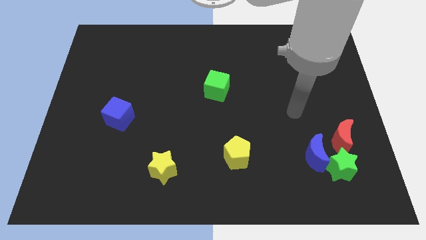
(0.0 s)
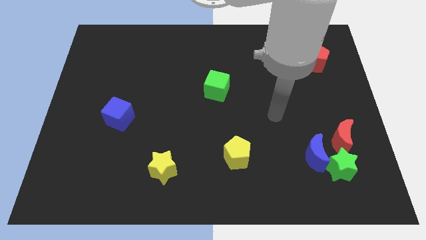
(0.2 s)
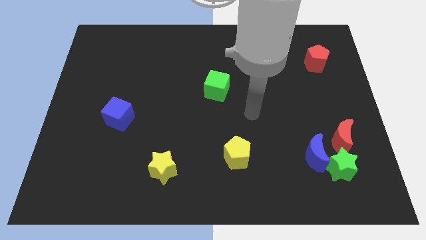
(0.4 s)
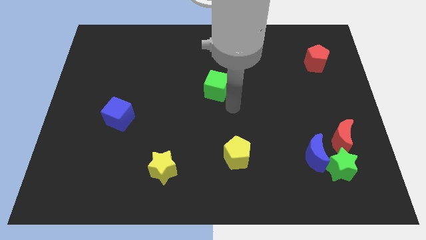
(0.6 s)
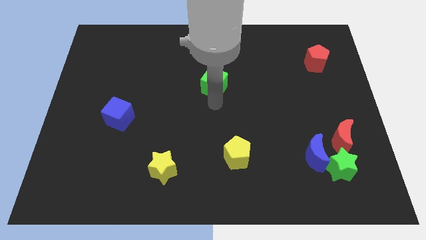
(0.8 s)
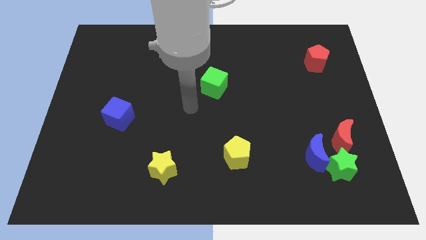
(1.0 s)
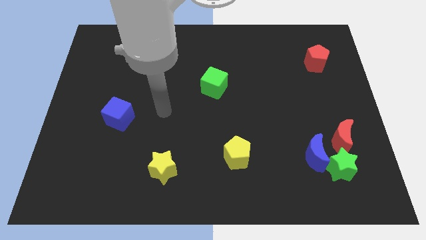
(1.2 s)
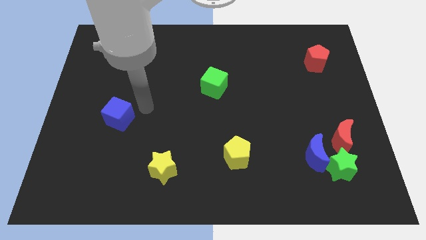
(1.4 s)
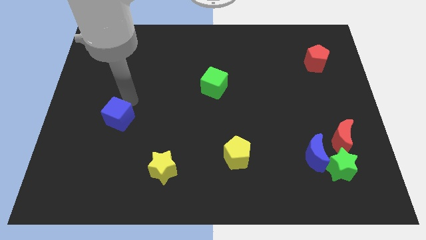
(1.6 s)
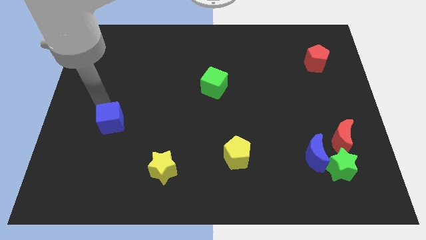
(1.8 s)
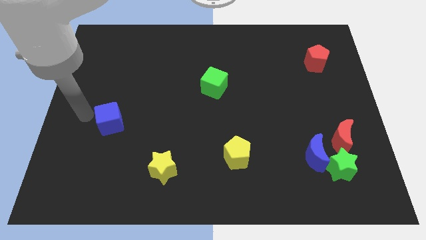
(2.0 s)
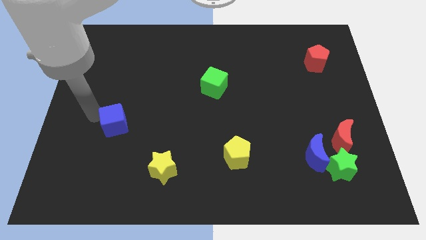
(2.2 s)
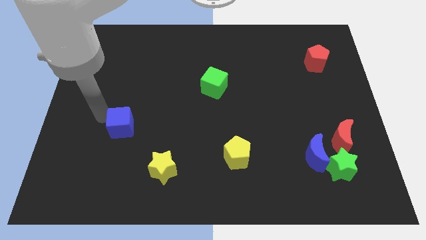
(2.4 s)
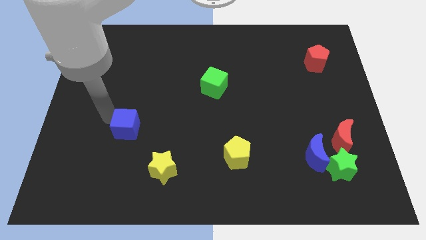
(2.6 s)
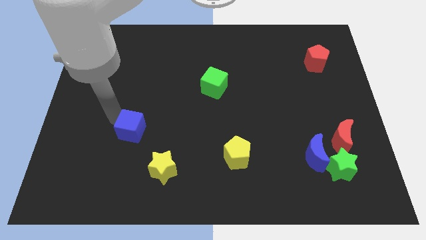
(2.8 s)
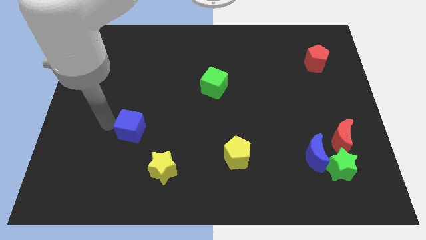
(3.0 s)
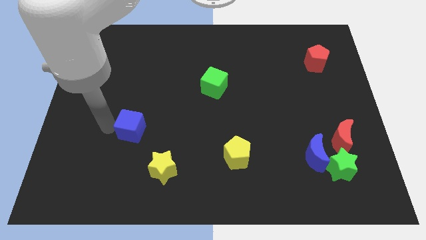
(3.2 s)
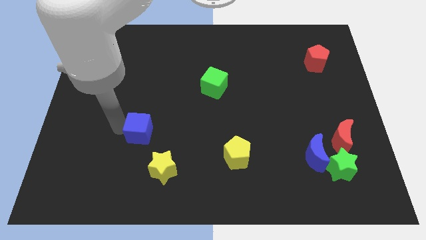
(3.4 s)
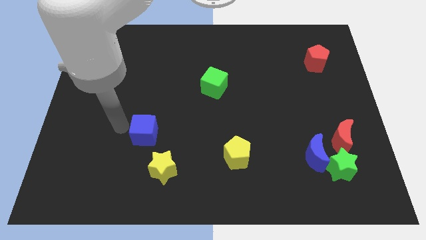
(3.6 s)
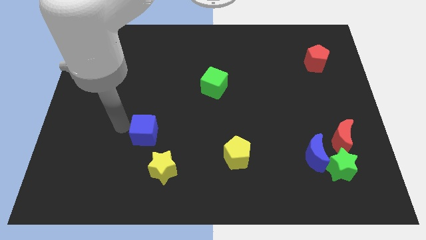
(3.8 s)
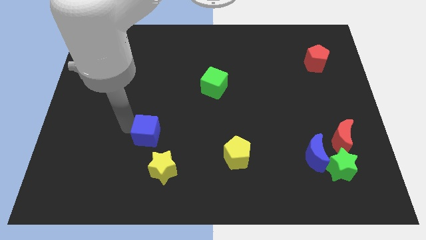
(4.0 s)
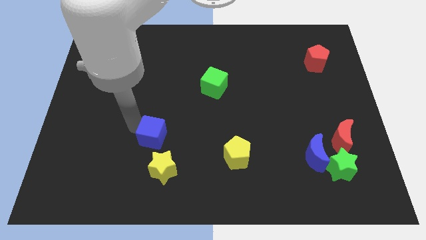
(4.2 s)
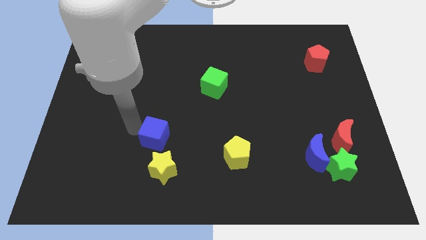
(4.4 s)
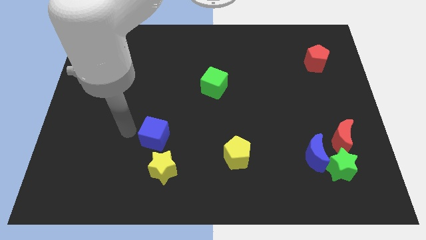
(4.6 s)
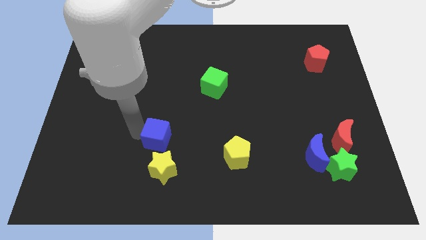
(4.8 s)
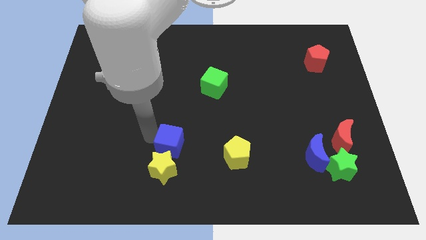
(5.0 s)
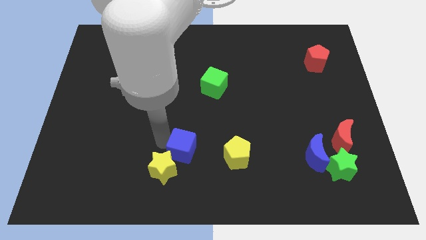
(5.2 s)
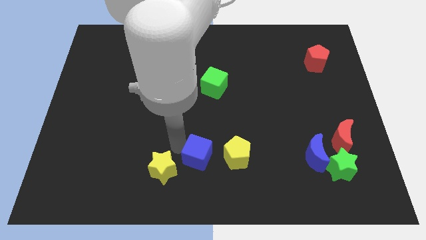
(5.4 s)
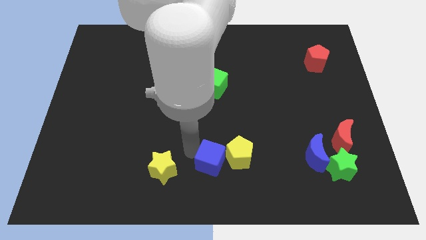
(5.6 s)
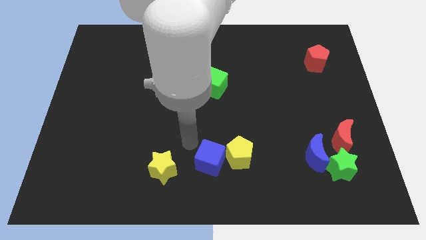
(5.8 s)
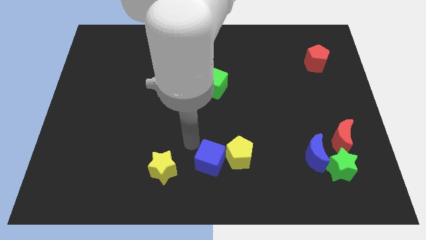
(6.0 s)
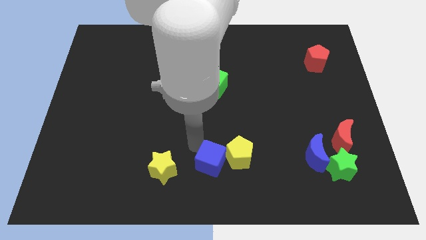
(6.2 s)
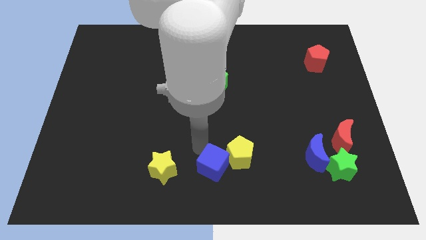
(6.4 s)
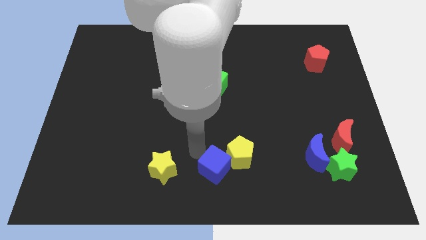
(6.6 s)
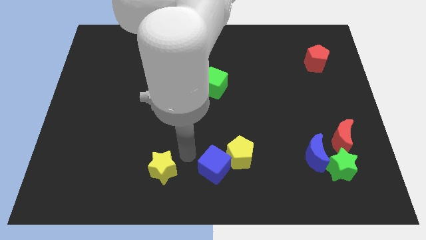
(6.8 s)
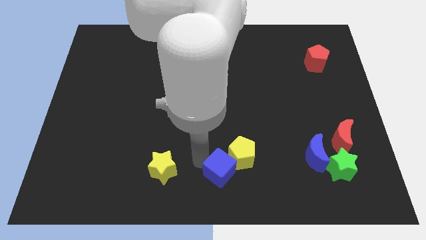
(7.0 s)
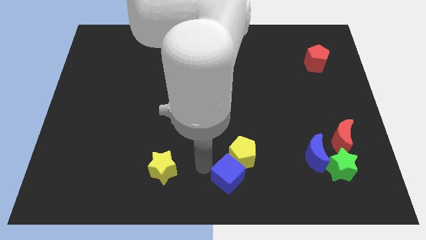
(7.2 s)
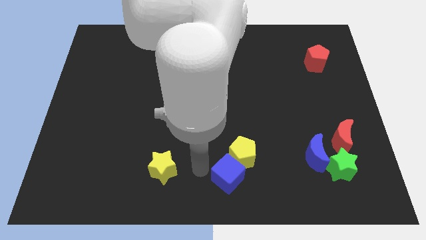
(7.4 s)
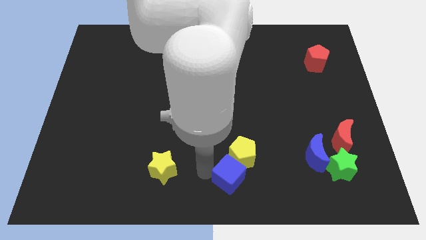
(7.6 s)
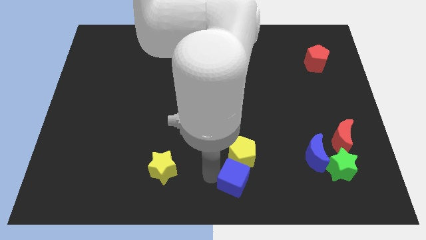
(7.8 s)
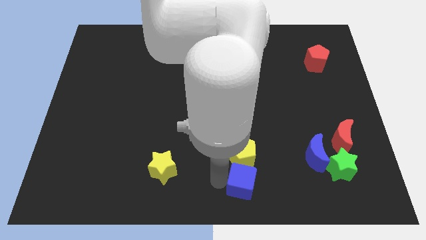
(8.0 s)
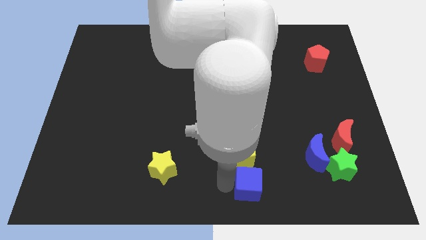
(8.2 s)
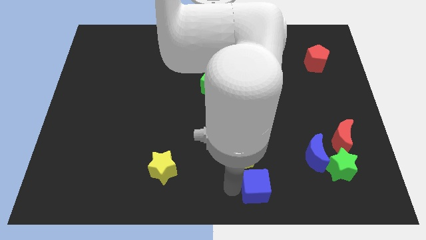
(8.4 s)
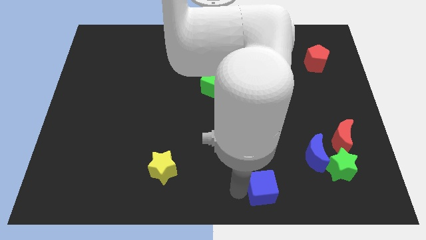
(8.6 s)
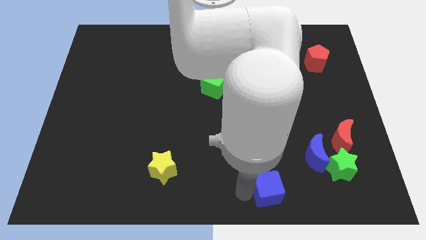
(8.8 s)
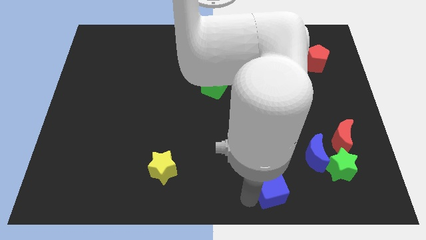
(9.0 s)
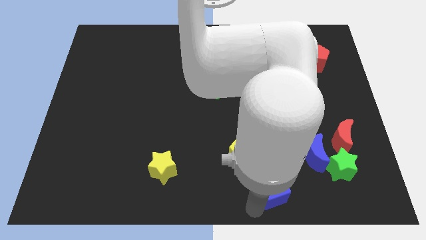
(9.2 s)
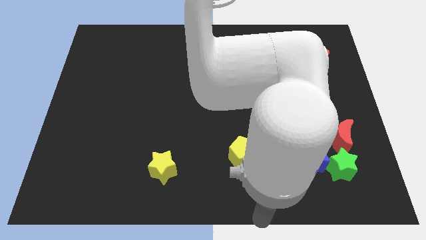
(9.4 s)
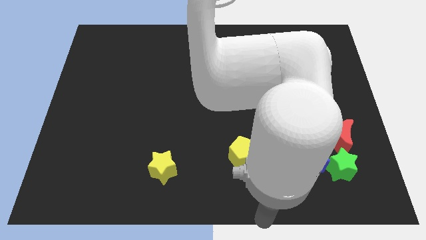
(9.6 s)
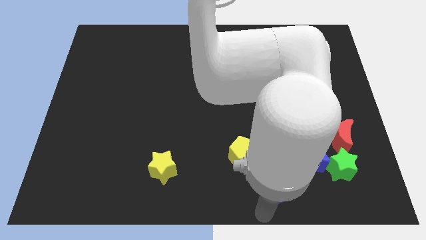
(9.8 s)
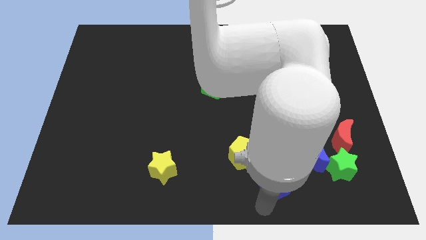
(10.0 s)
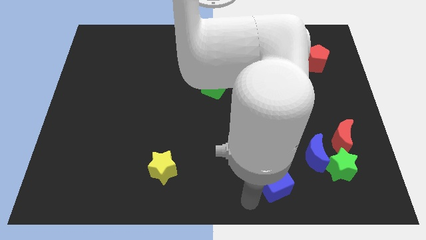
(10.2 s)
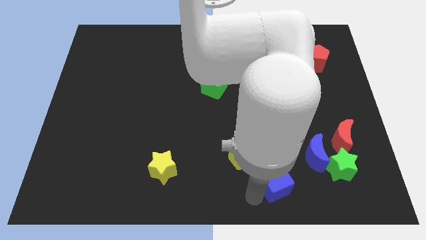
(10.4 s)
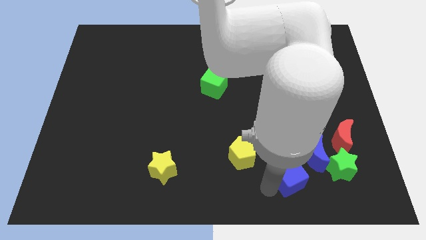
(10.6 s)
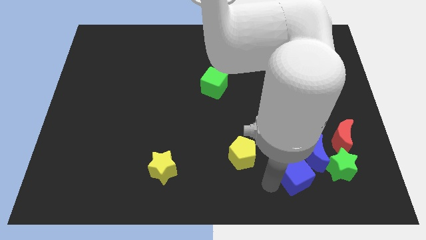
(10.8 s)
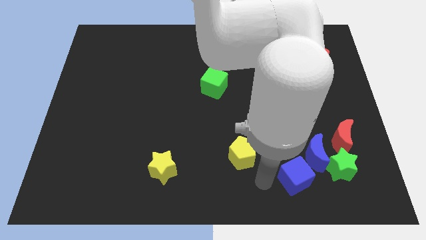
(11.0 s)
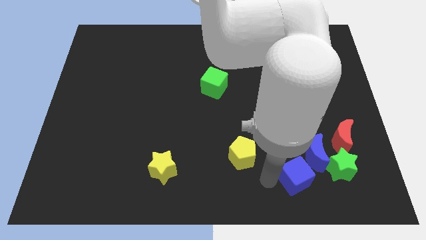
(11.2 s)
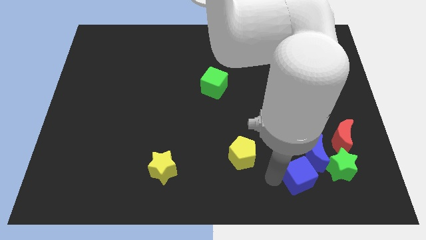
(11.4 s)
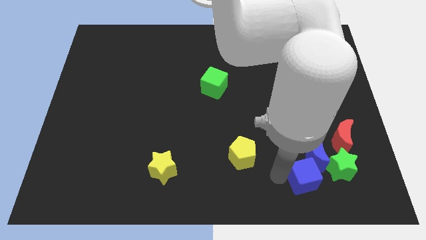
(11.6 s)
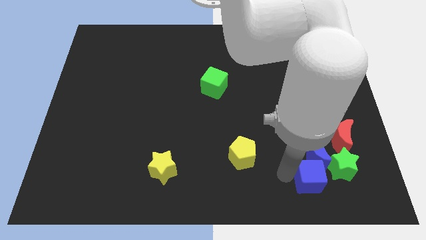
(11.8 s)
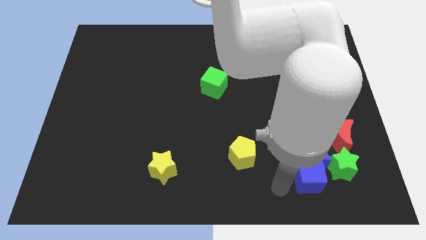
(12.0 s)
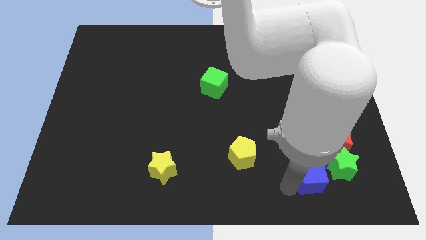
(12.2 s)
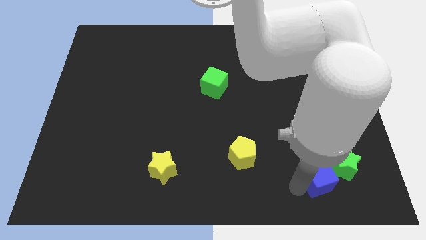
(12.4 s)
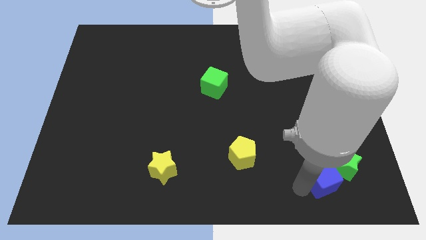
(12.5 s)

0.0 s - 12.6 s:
slide the blue cube next to the green star

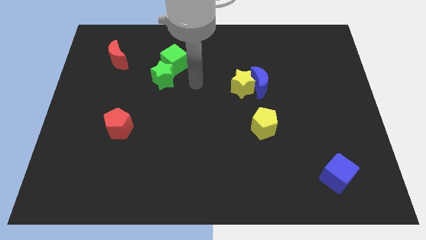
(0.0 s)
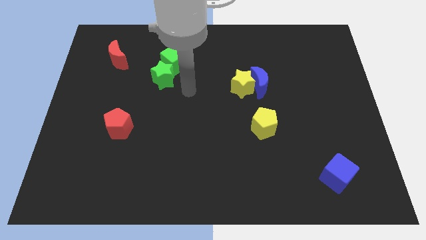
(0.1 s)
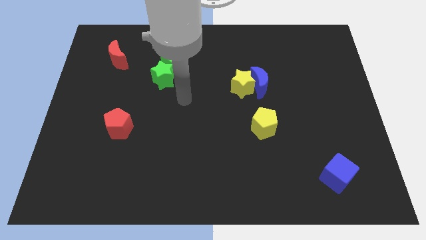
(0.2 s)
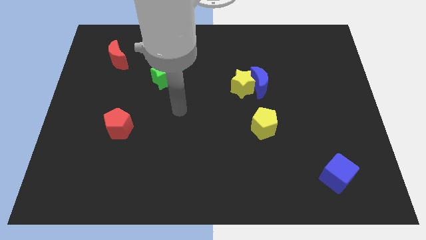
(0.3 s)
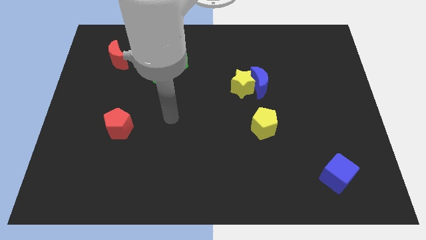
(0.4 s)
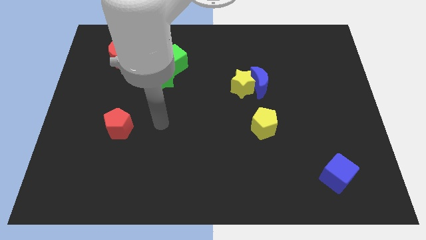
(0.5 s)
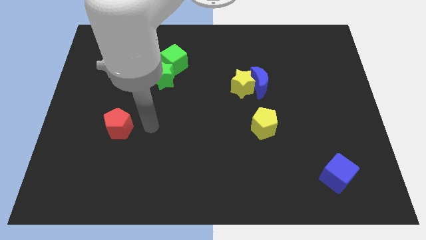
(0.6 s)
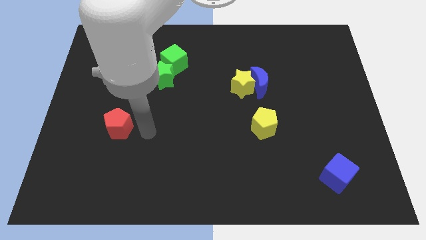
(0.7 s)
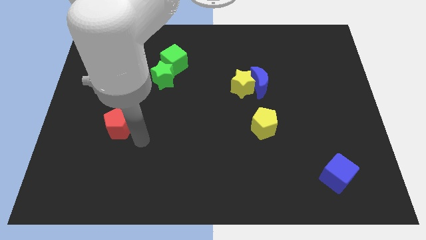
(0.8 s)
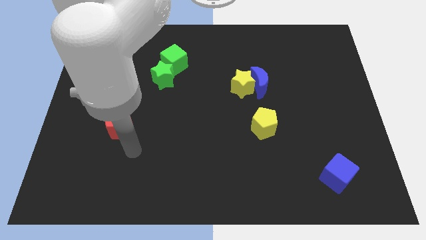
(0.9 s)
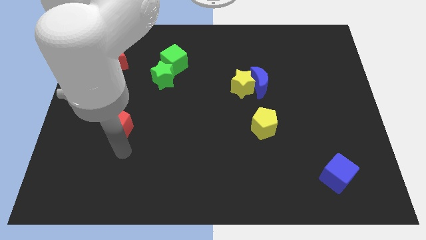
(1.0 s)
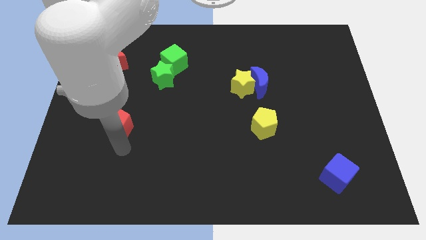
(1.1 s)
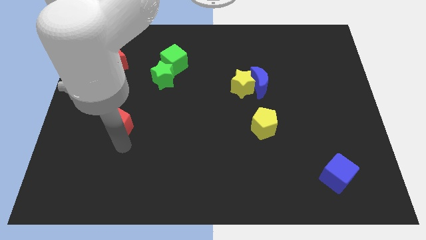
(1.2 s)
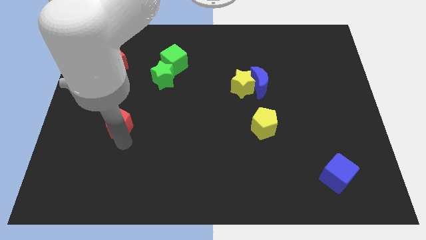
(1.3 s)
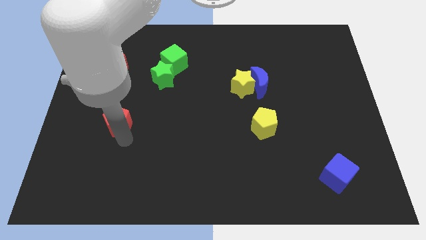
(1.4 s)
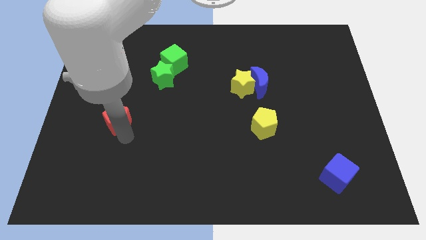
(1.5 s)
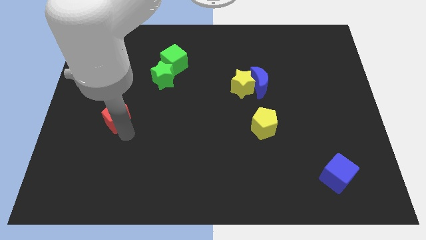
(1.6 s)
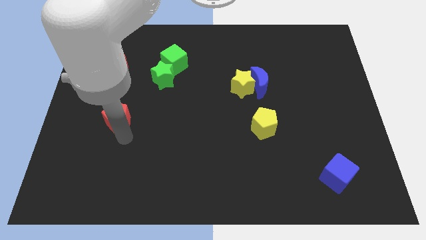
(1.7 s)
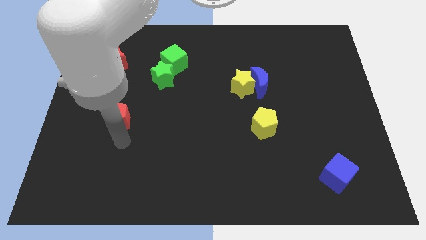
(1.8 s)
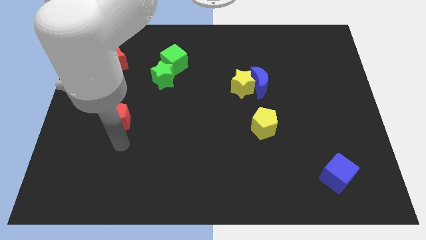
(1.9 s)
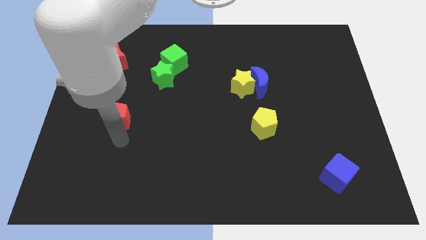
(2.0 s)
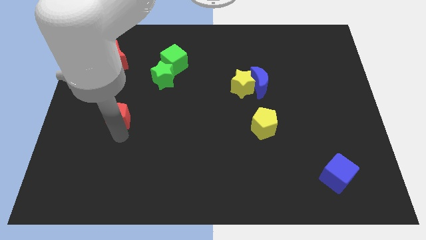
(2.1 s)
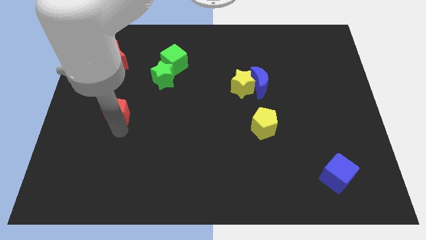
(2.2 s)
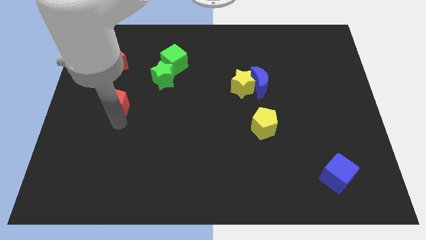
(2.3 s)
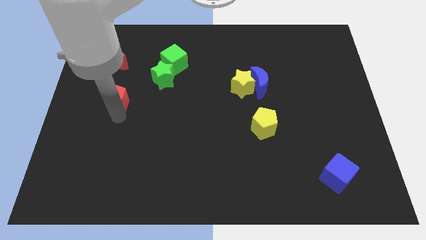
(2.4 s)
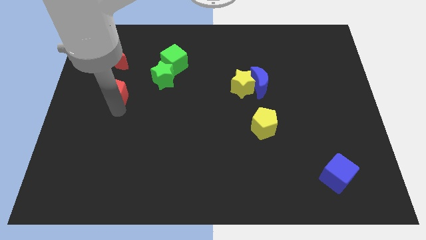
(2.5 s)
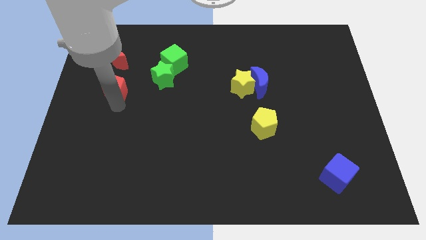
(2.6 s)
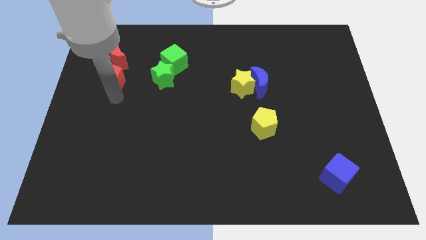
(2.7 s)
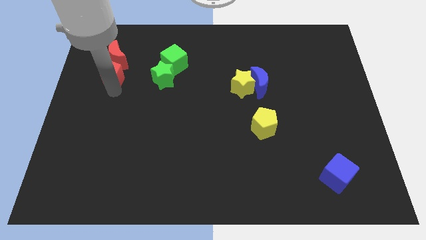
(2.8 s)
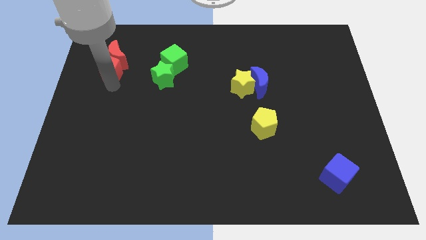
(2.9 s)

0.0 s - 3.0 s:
slide the red pentagon towards the red moon
